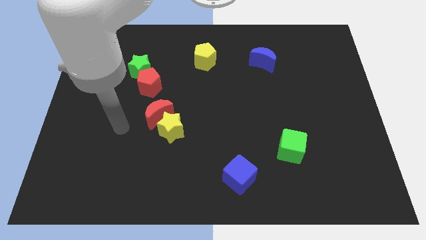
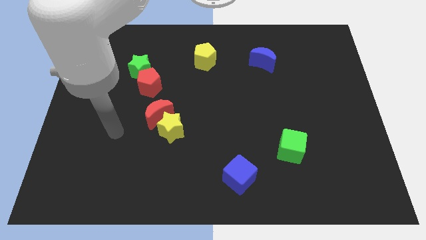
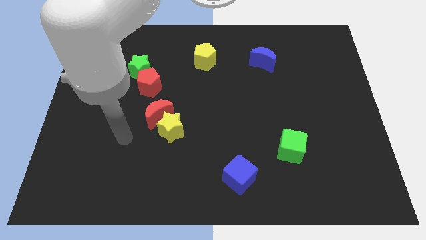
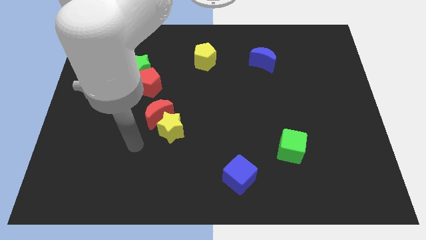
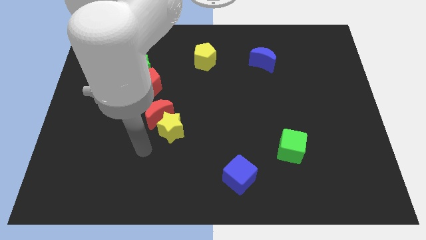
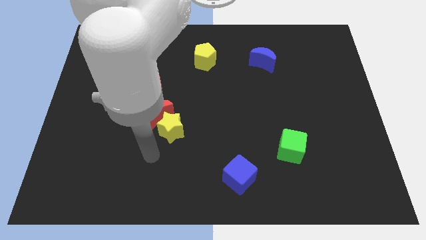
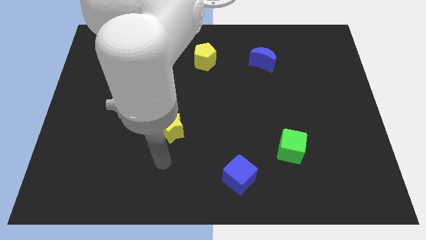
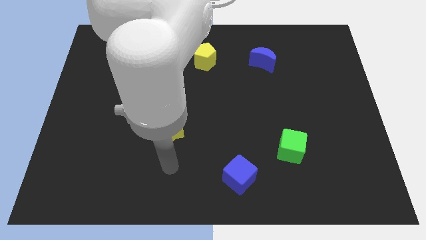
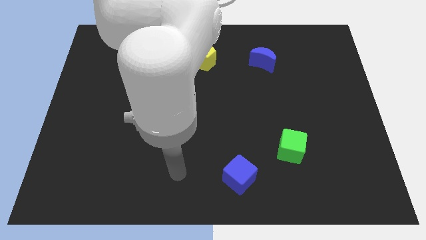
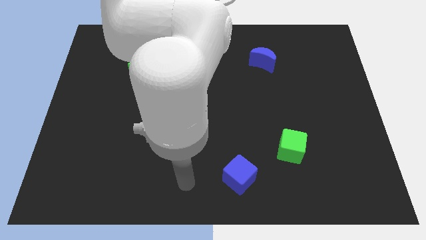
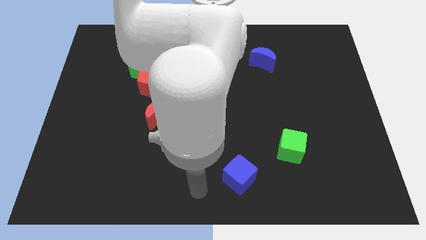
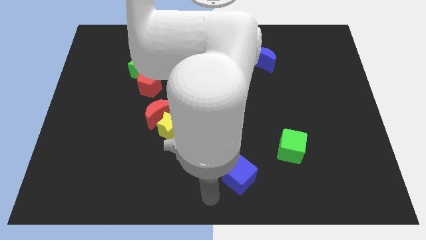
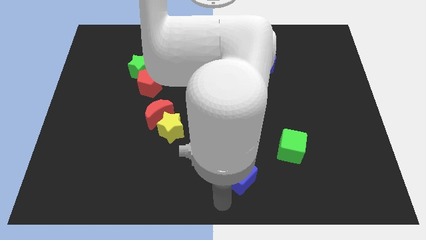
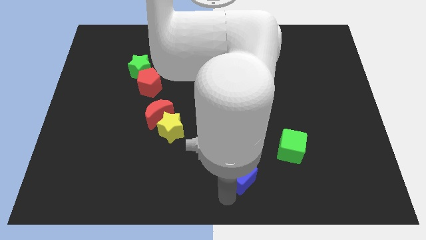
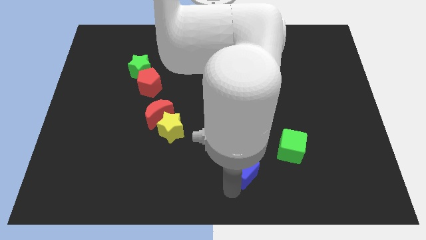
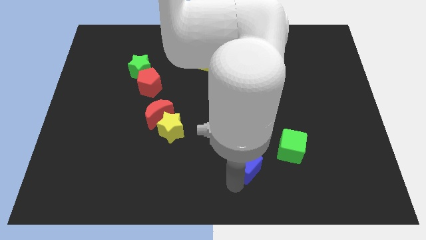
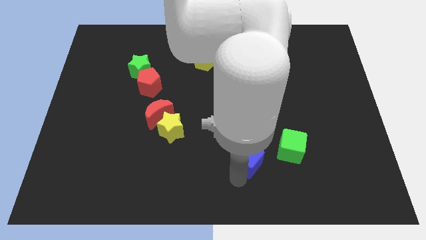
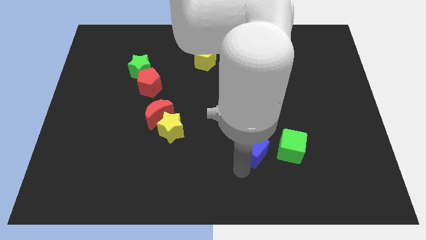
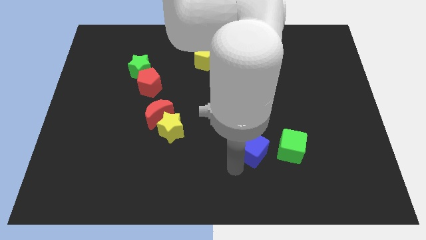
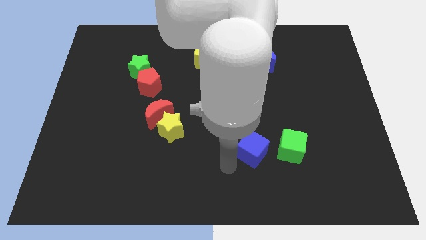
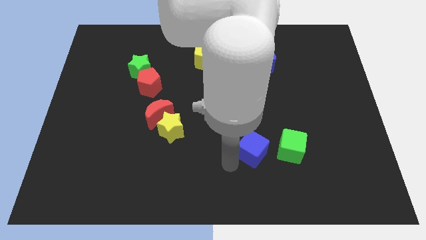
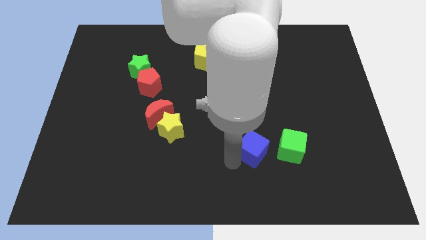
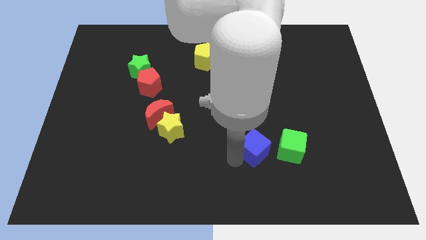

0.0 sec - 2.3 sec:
slightly push the blue cube diagonally up and right

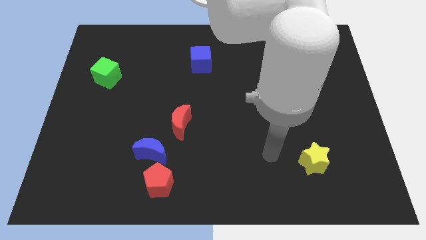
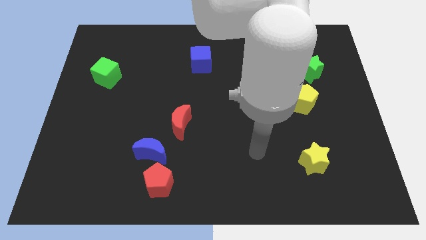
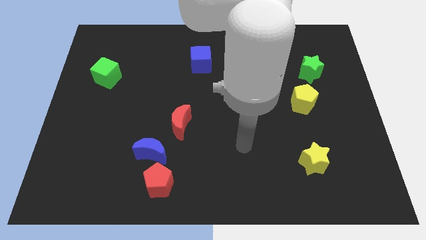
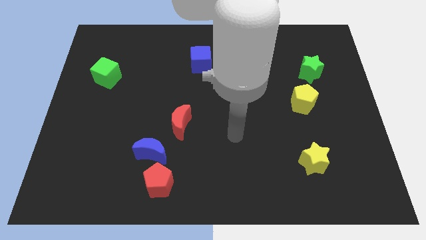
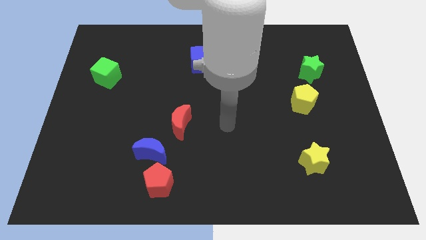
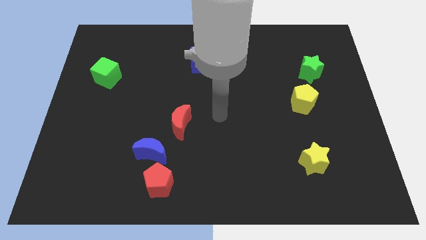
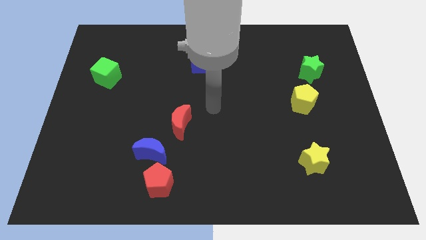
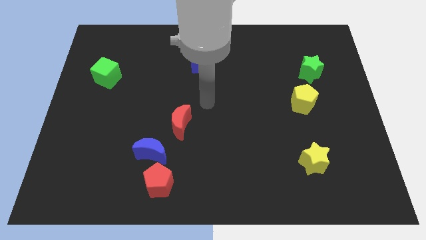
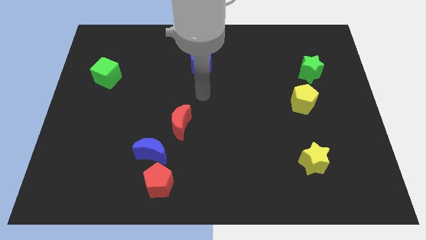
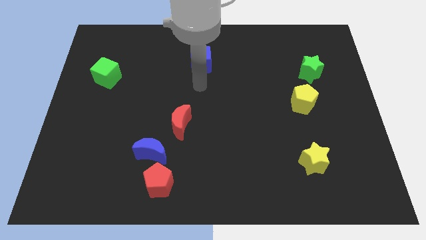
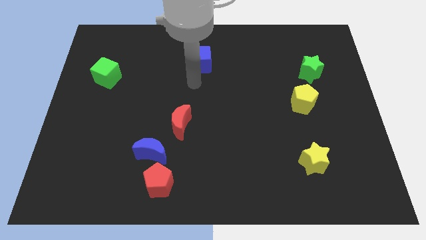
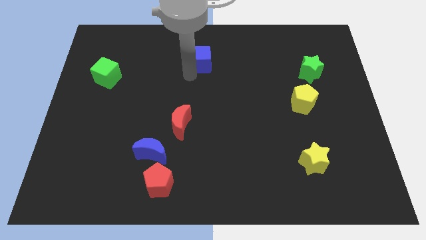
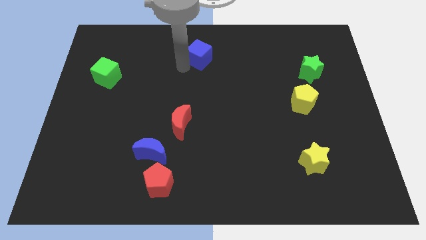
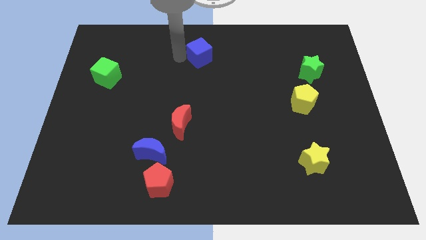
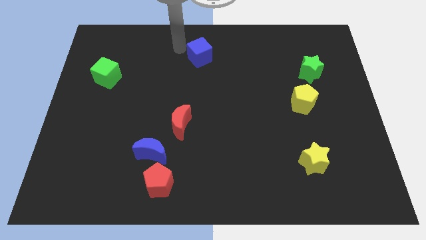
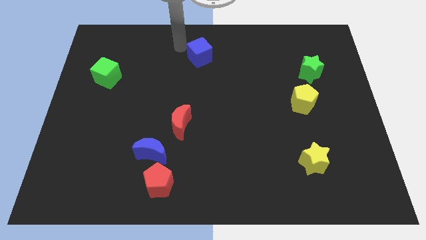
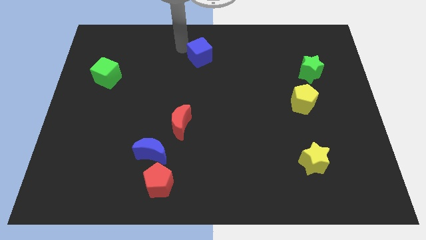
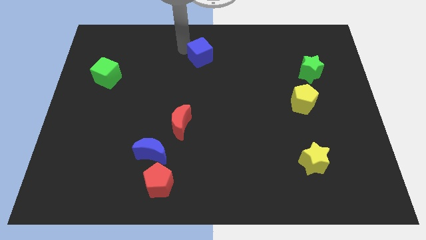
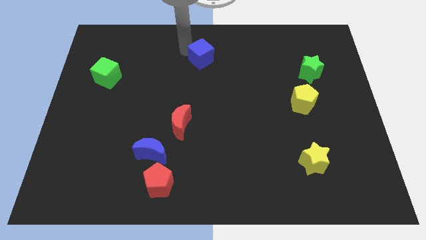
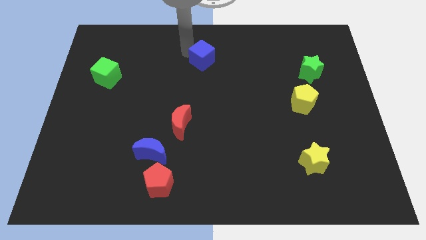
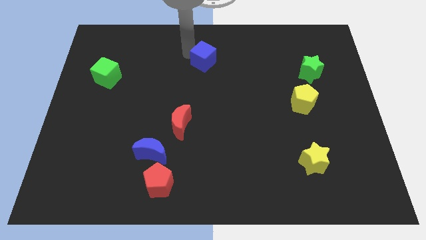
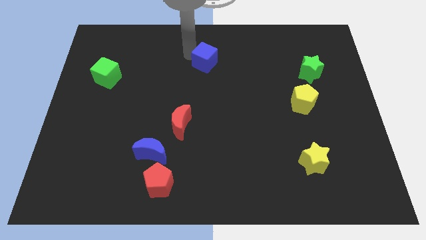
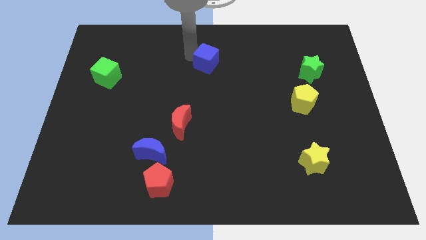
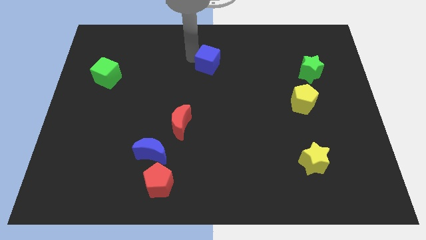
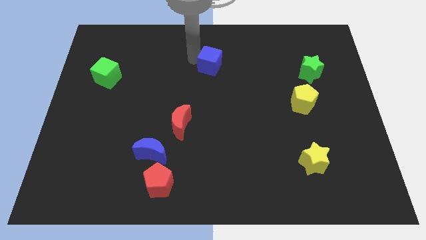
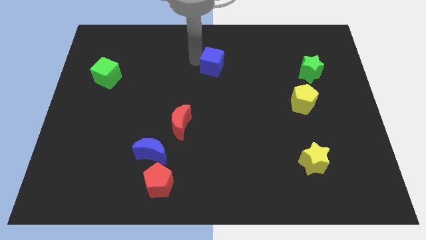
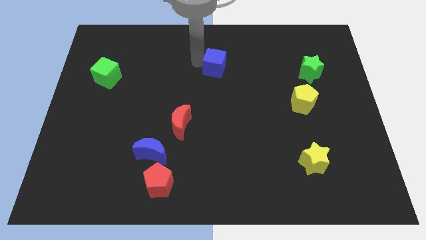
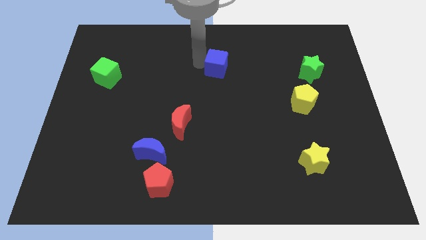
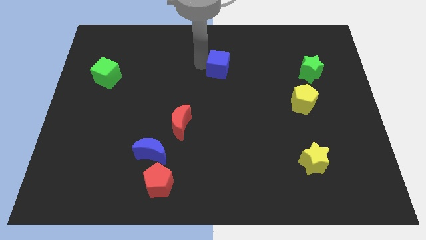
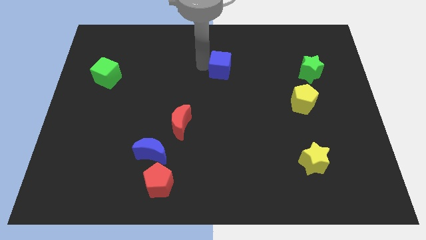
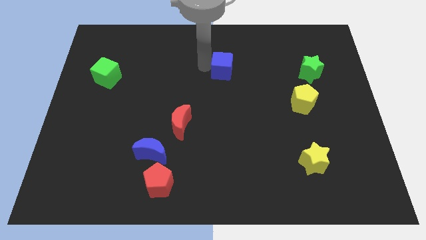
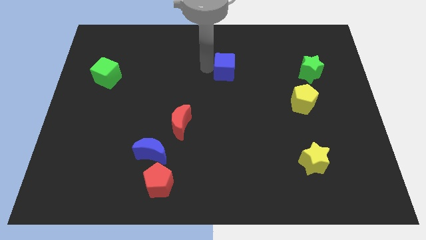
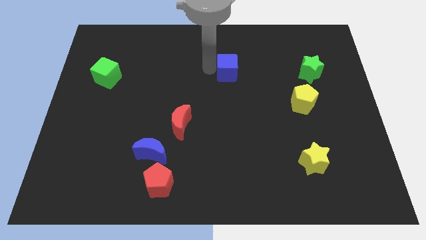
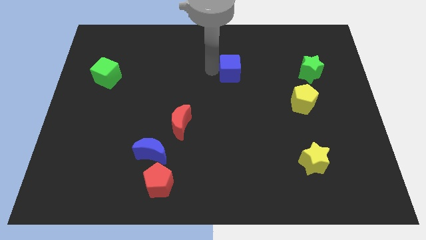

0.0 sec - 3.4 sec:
move the blue cube right a little

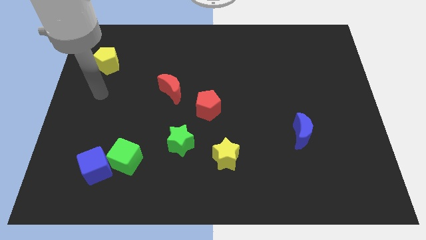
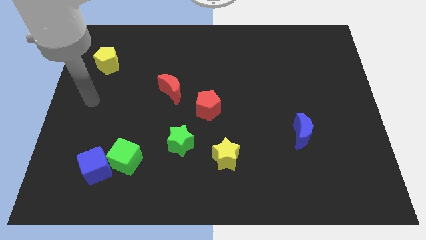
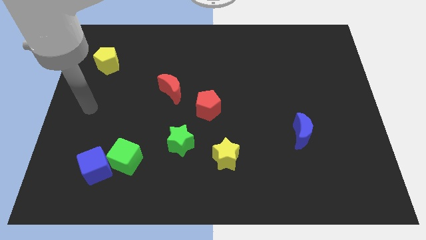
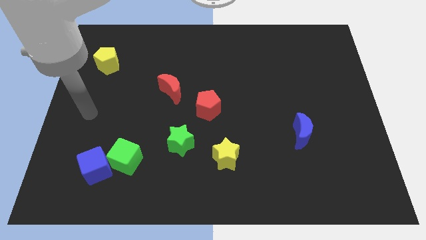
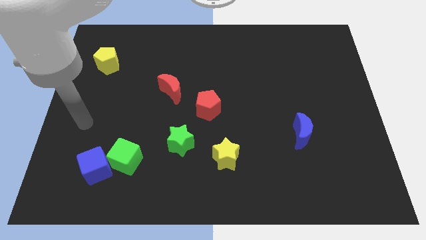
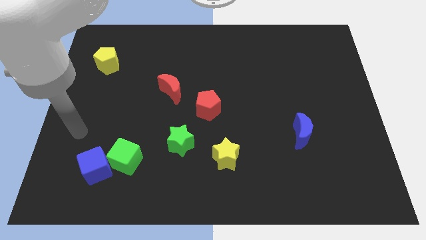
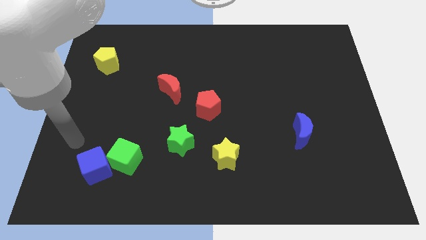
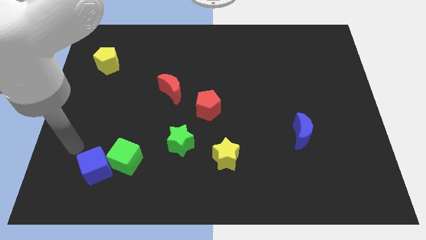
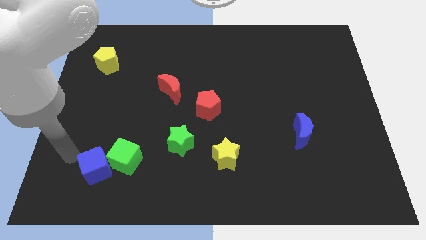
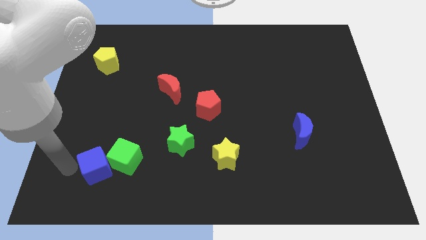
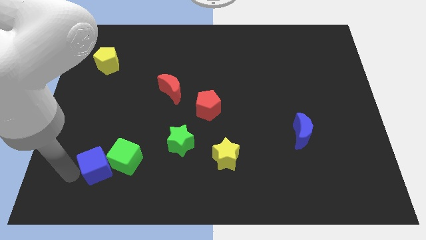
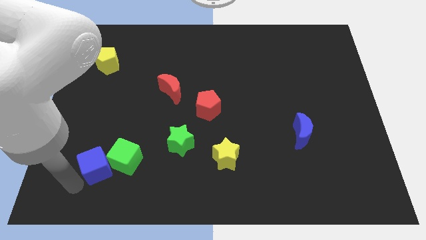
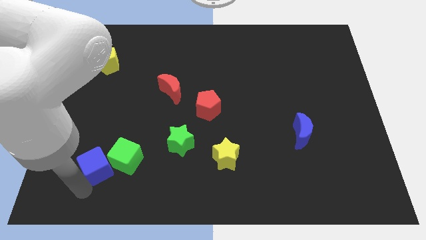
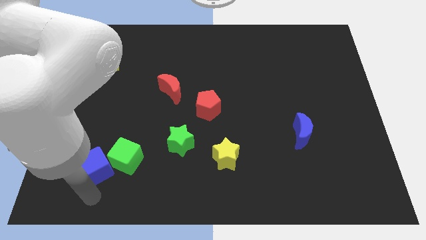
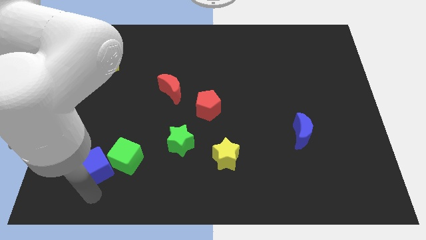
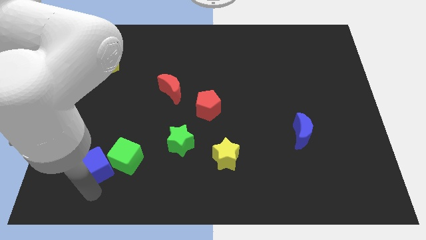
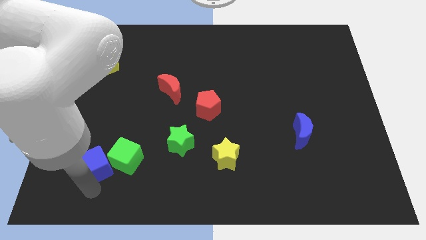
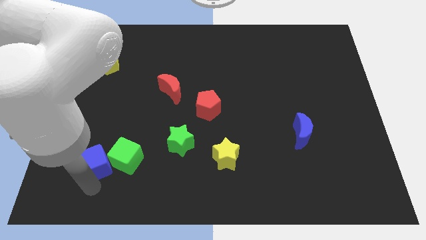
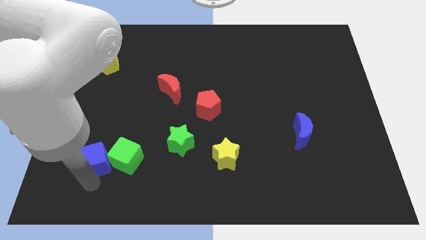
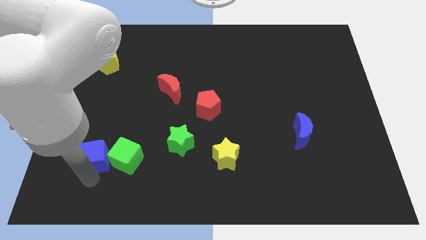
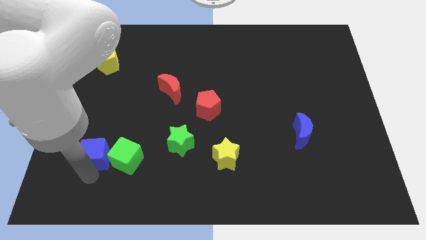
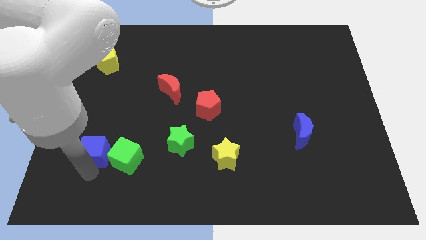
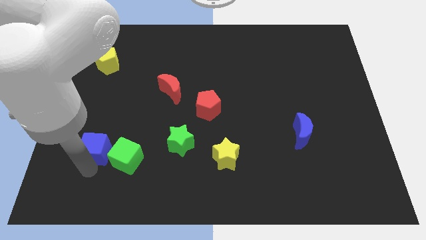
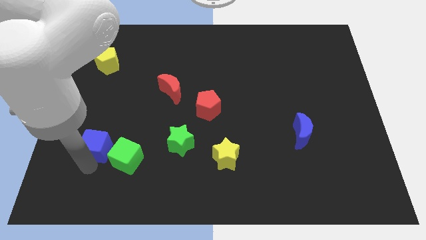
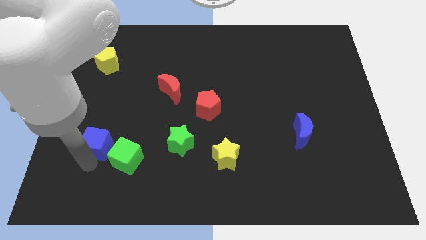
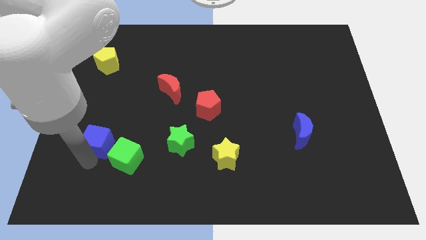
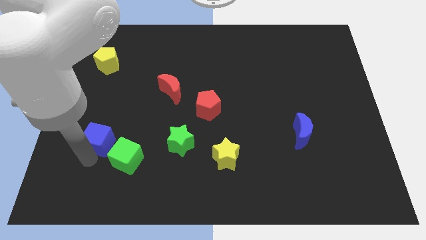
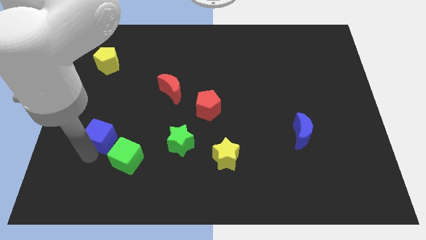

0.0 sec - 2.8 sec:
slightly slide the blue cube up

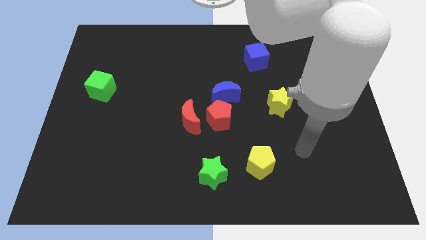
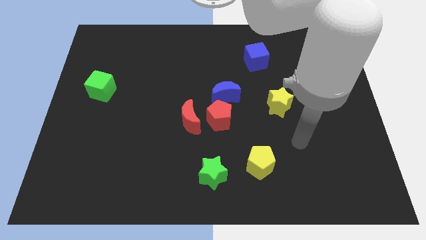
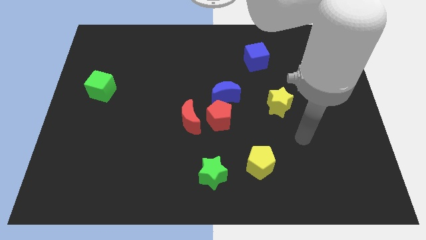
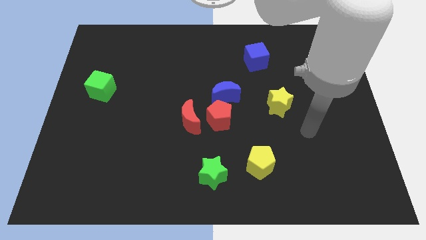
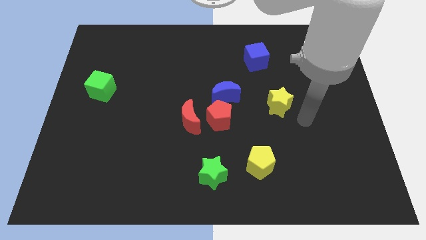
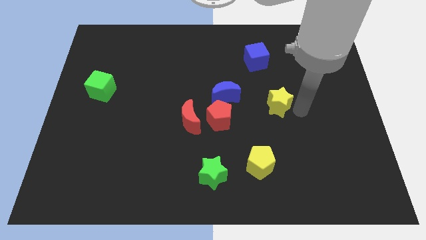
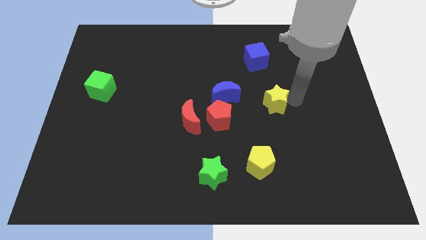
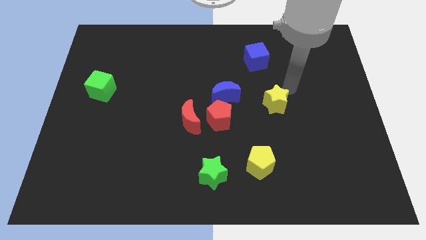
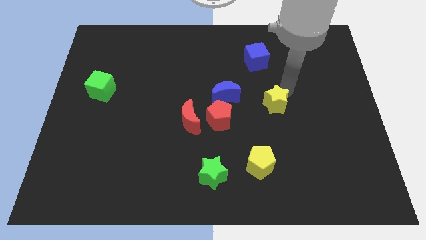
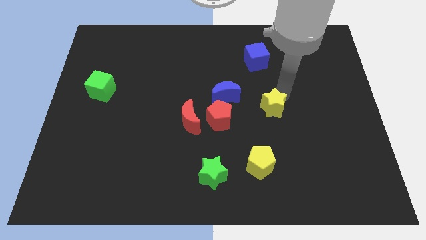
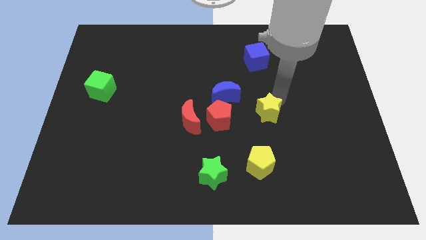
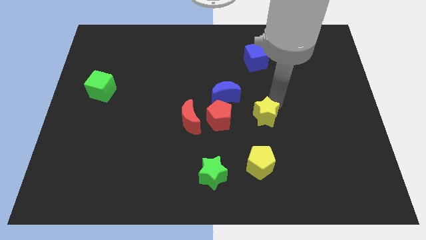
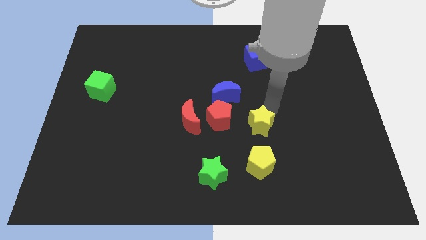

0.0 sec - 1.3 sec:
move the yellow star a little bit down and to the left diagonally
